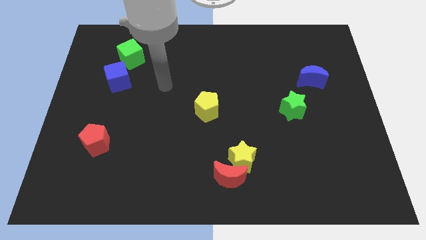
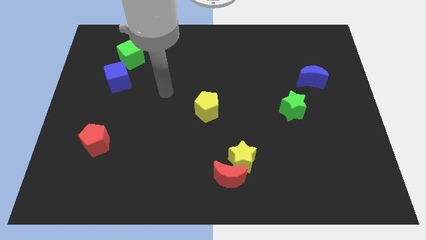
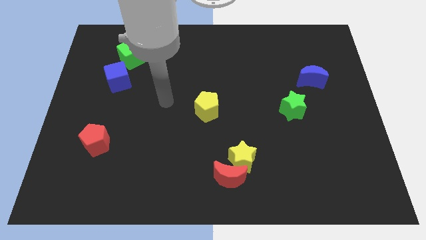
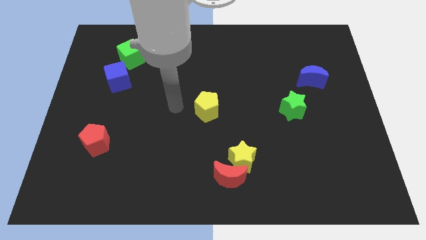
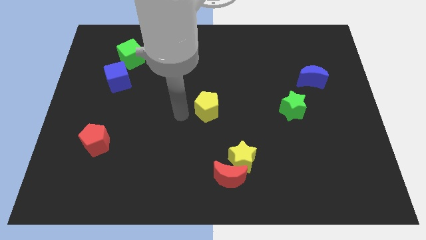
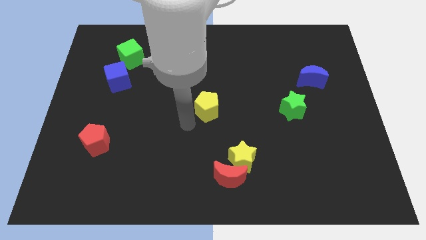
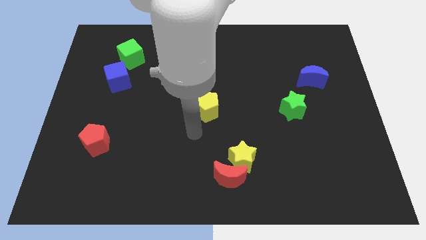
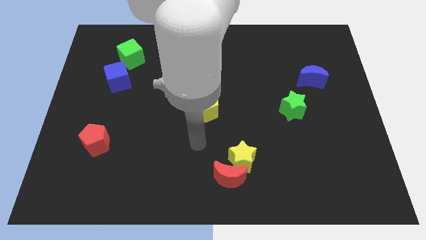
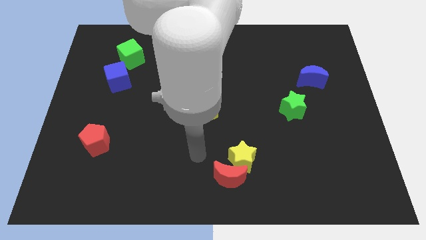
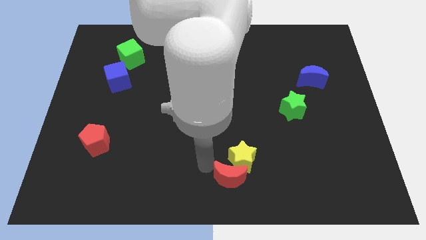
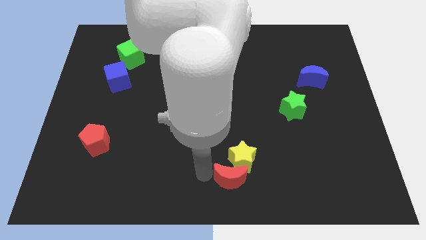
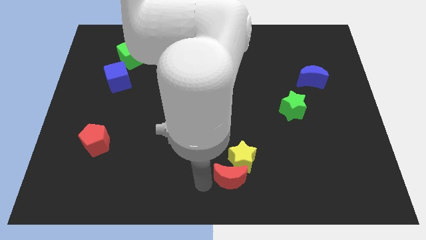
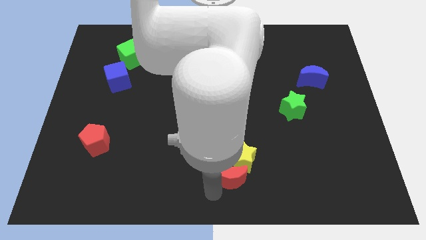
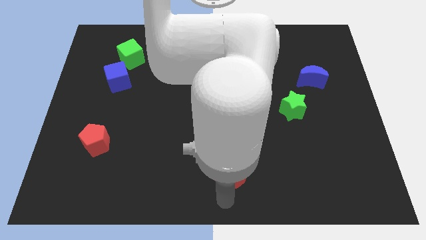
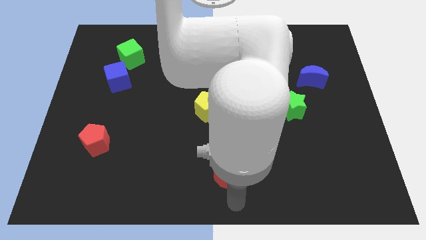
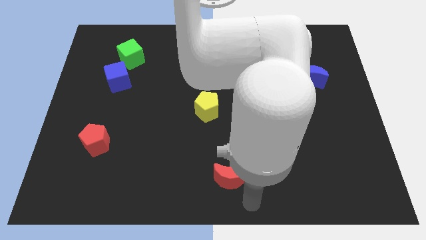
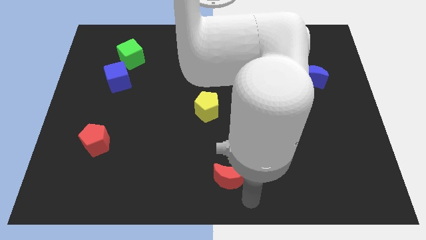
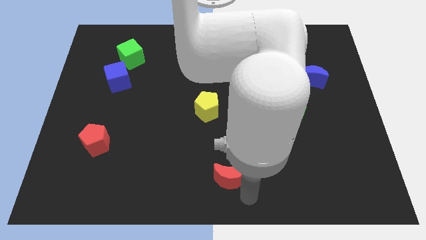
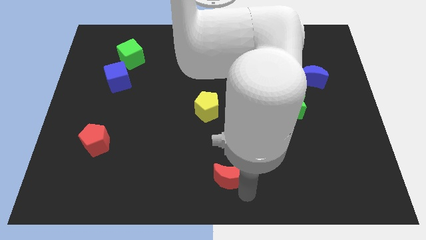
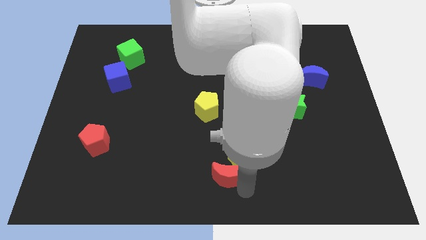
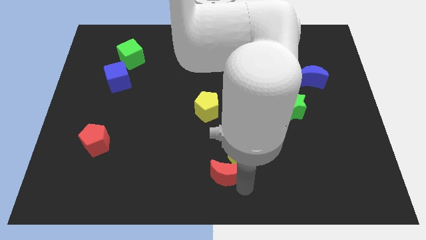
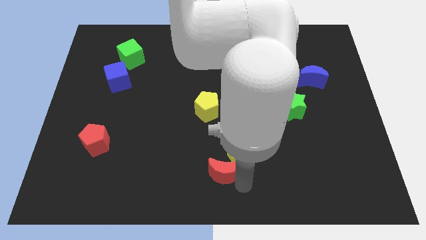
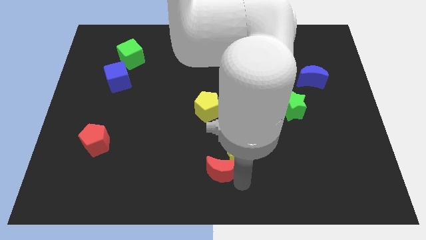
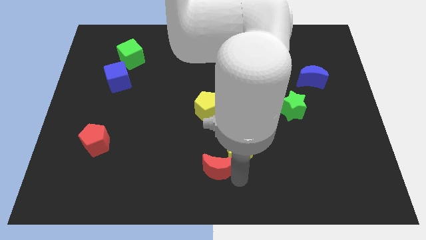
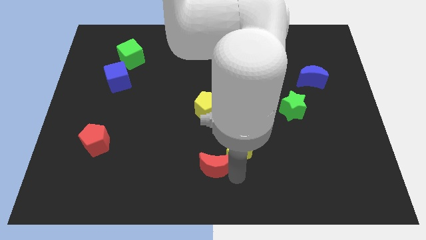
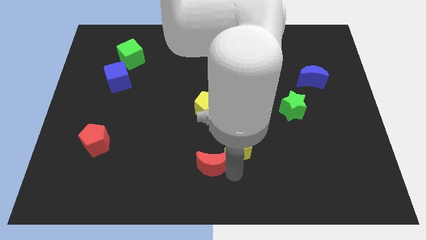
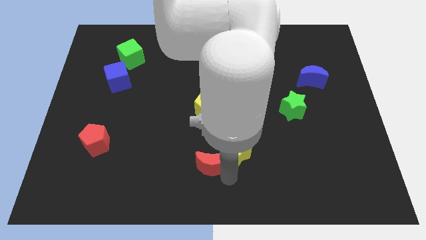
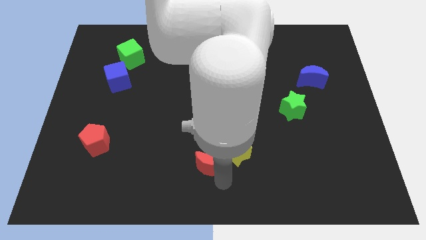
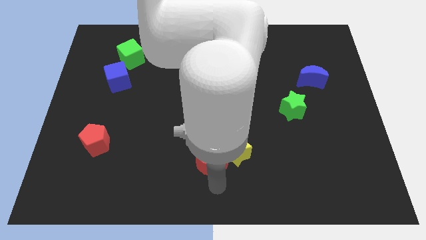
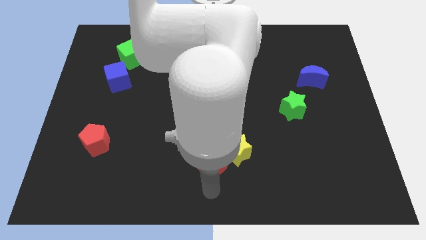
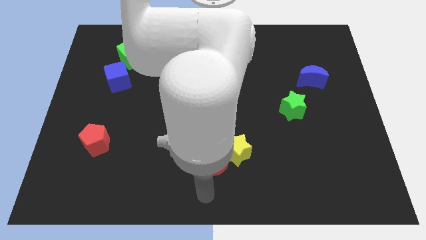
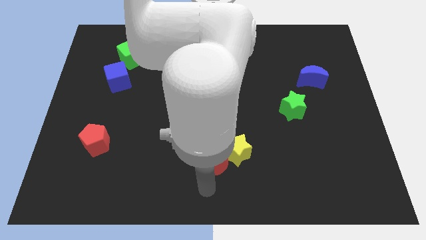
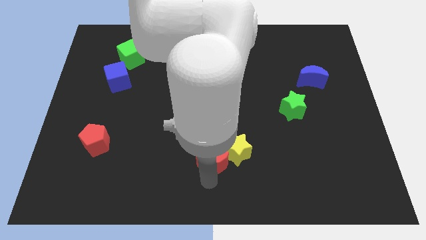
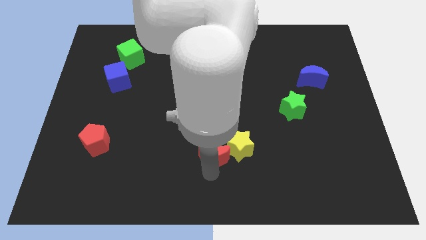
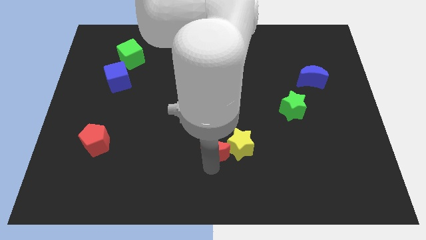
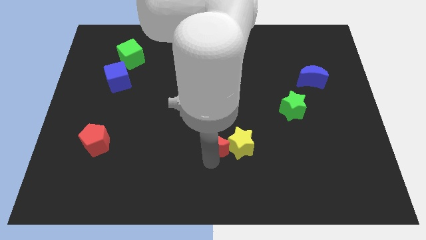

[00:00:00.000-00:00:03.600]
slide the red moon up a little

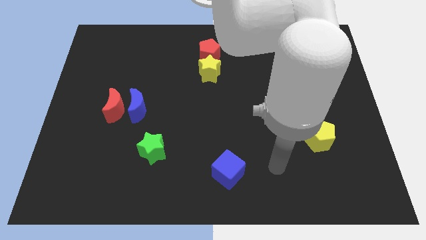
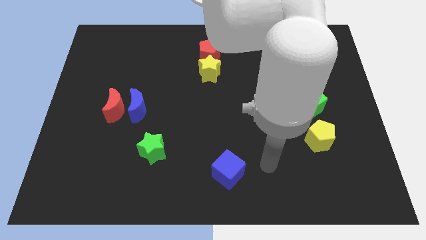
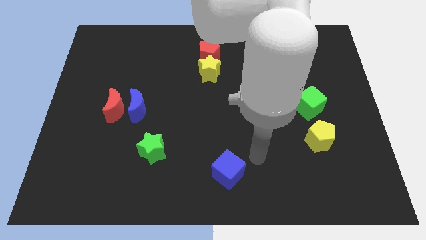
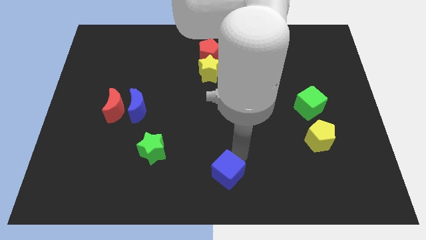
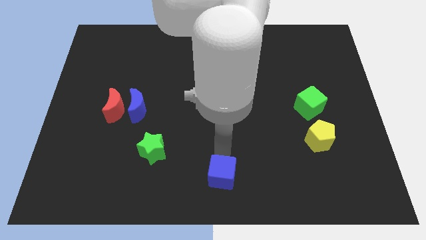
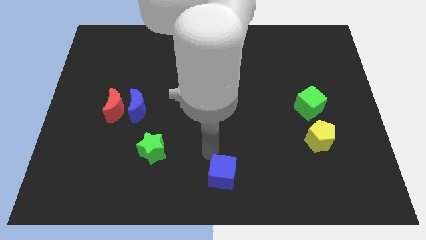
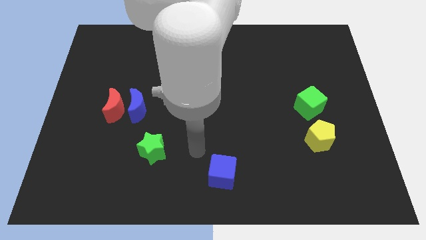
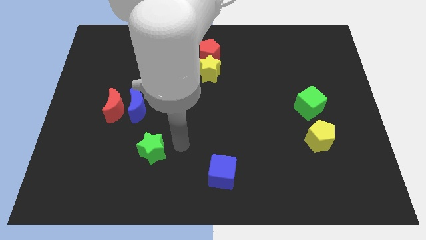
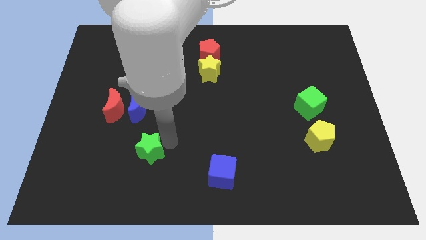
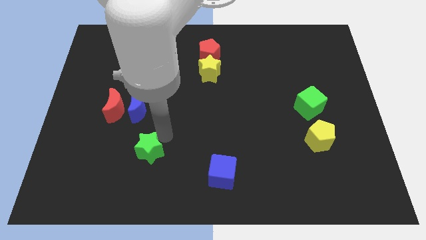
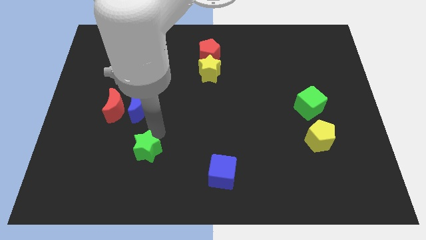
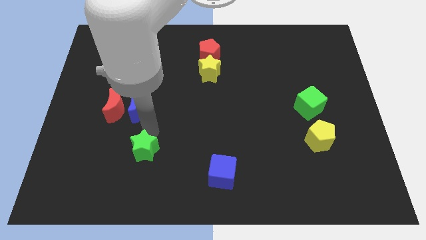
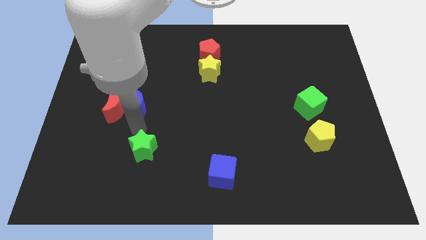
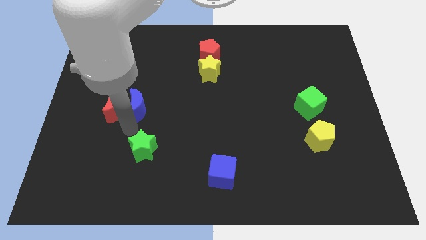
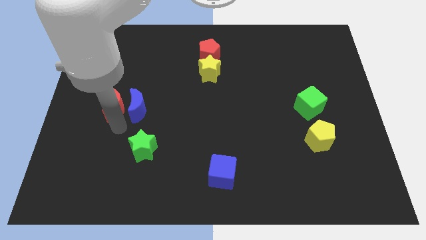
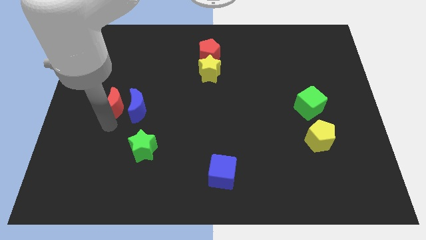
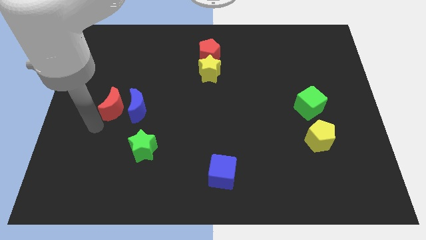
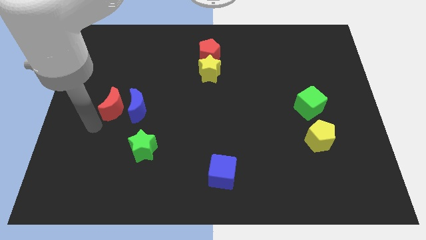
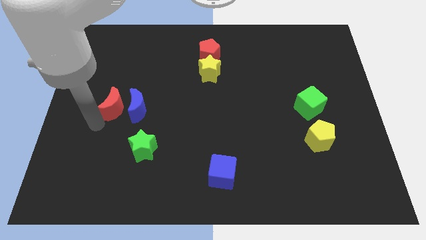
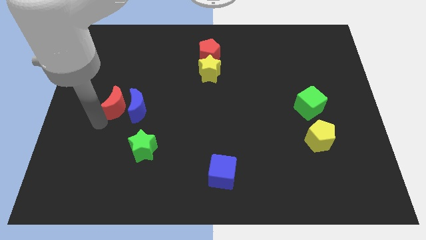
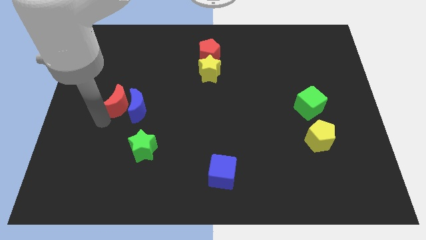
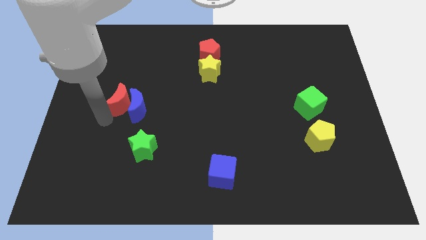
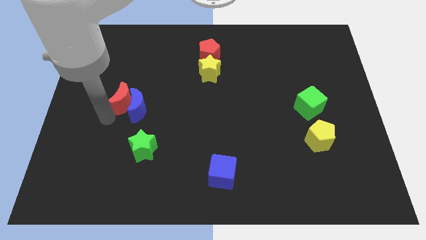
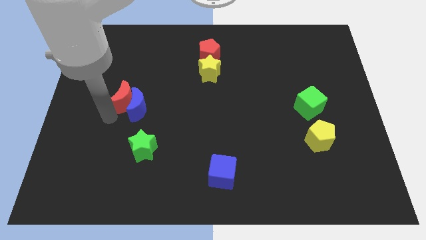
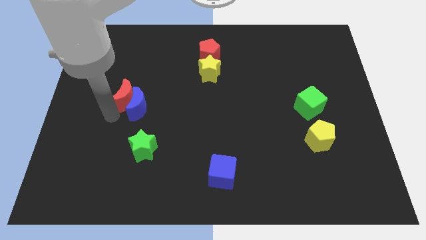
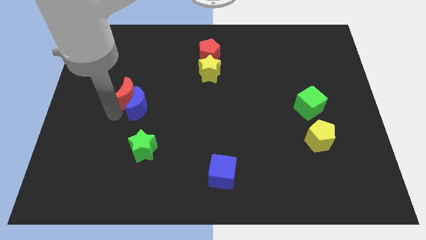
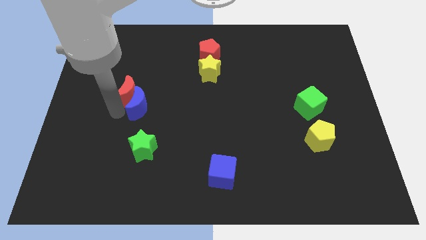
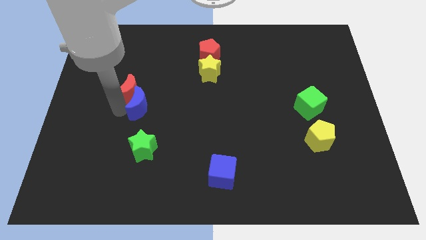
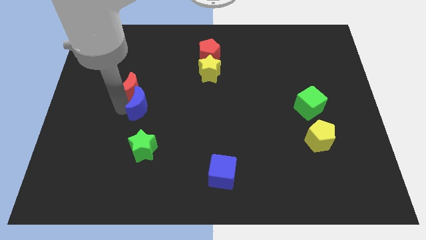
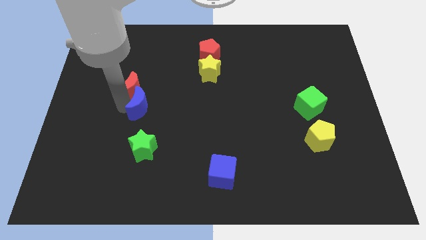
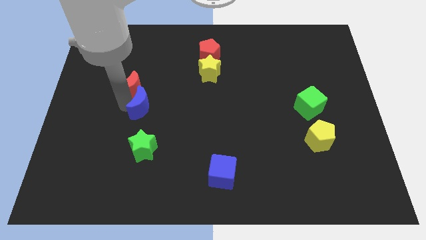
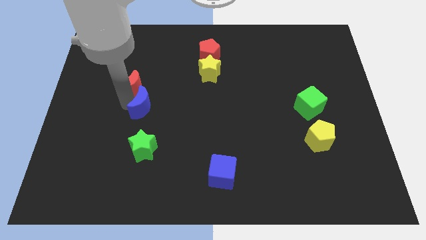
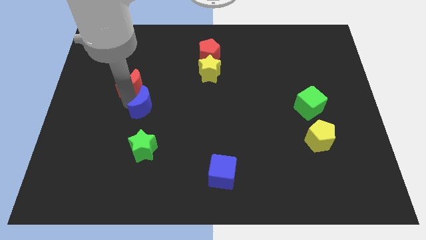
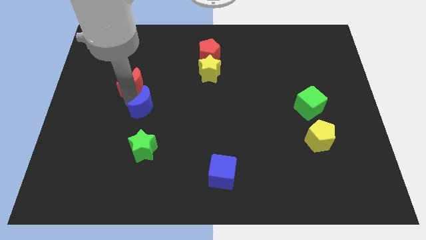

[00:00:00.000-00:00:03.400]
slide the red moon somewhat up and to the right

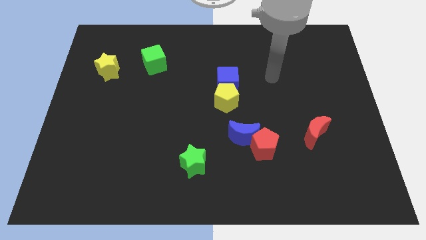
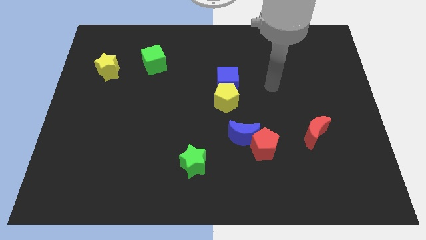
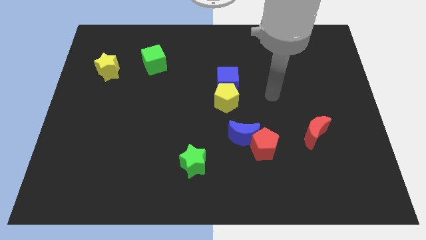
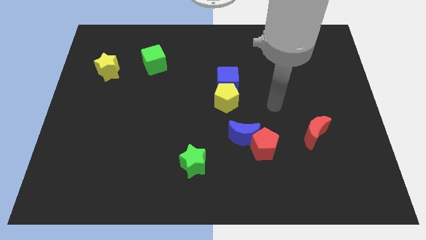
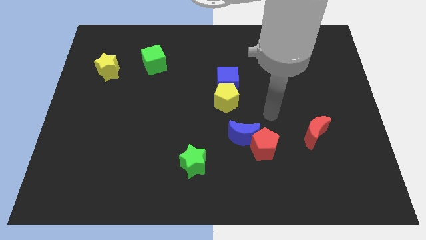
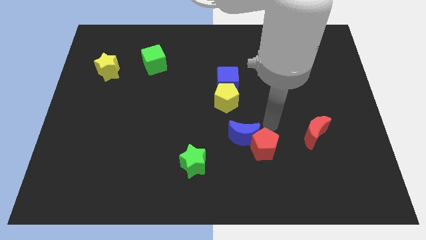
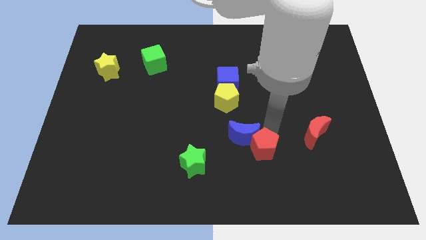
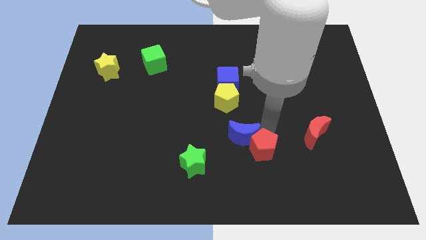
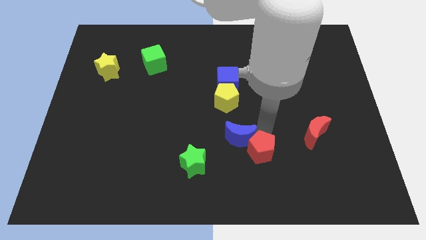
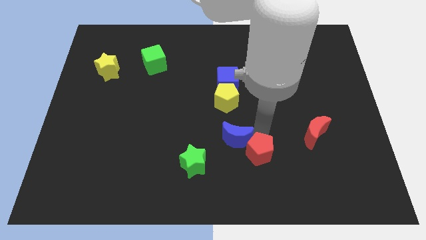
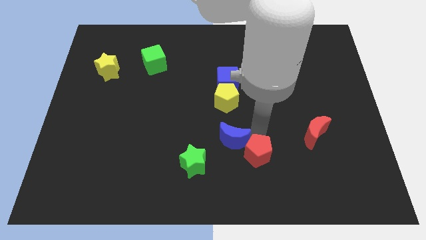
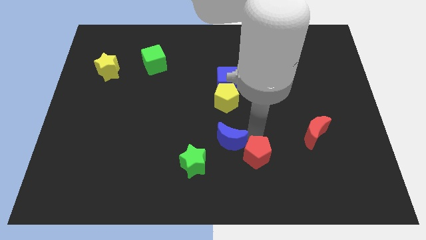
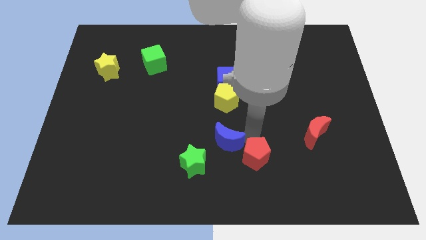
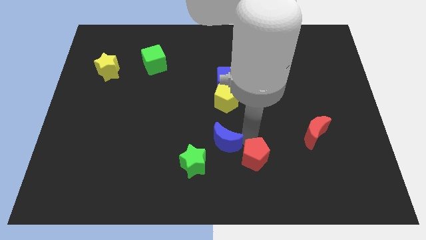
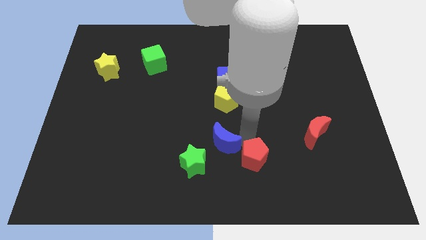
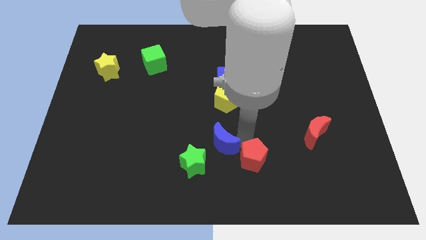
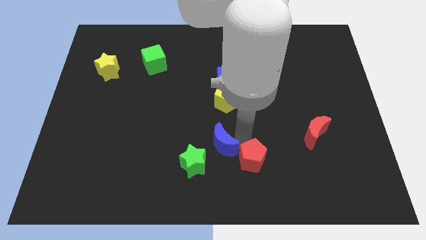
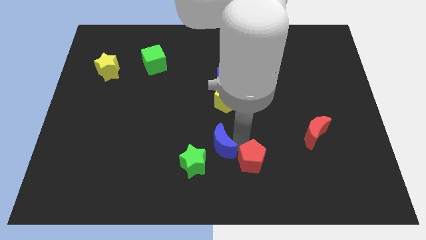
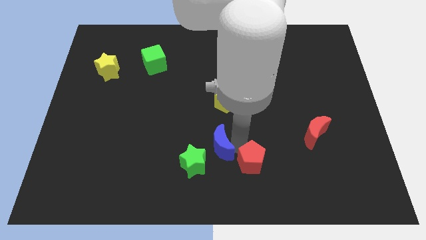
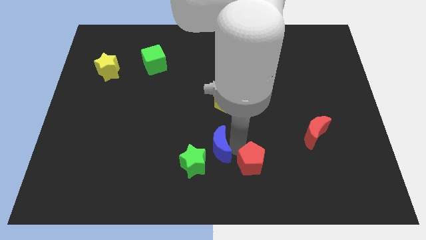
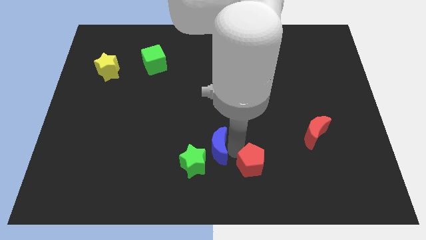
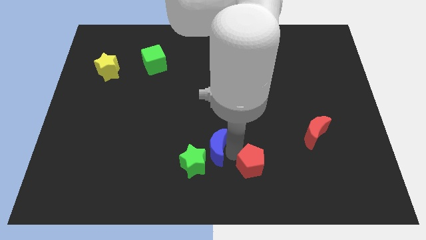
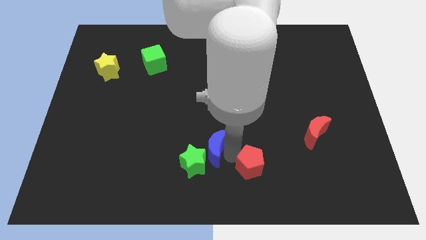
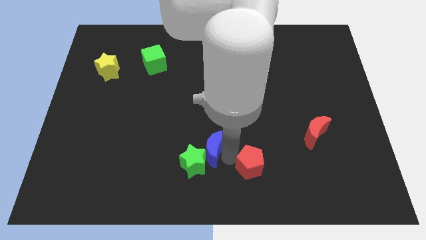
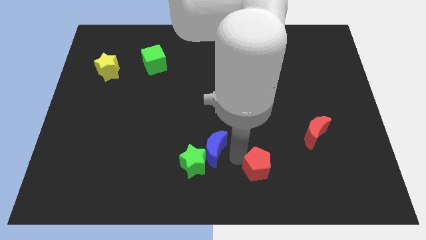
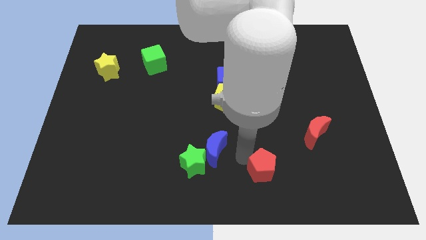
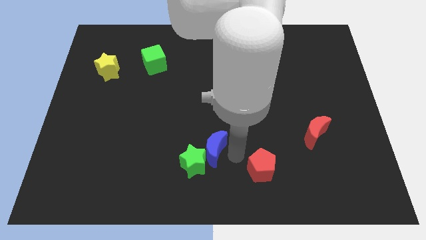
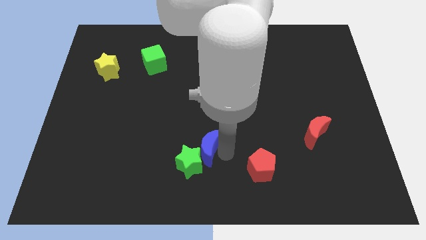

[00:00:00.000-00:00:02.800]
slightly move the blue moon to the left
